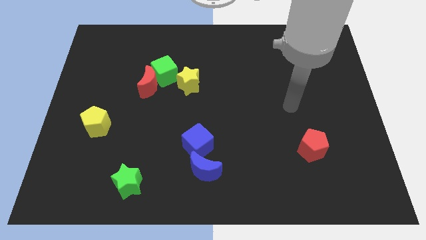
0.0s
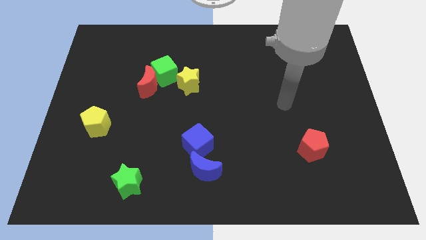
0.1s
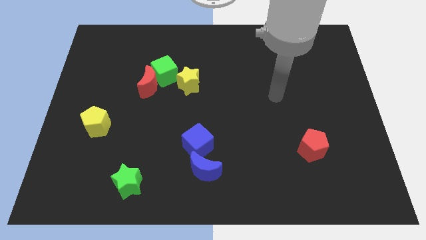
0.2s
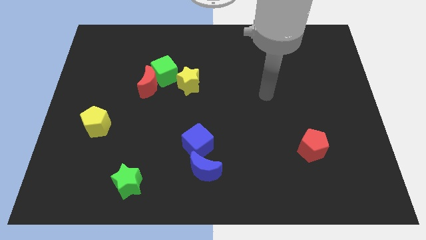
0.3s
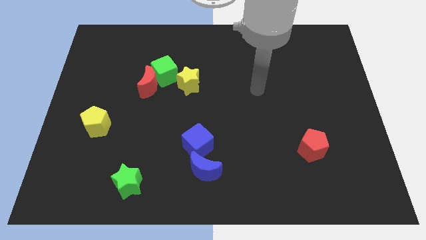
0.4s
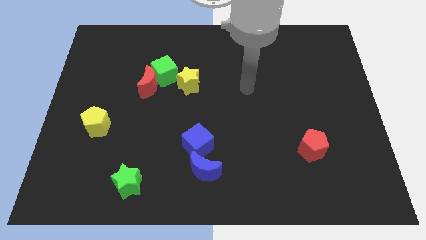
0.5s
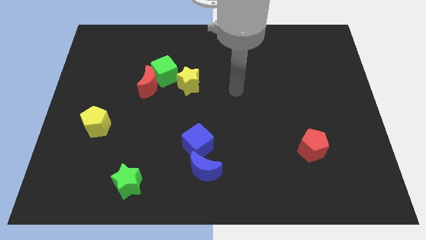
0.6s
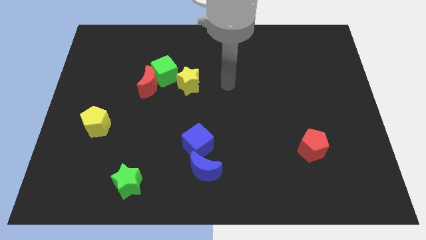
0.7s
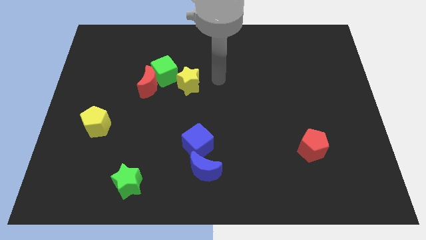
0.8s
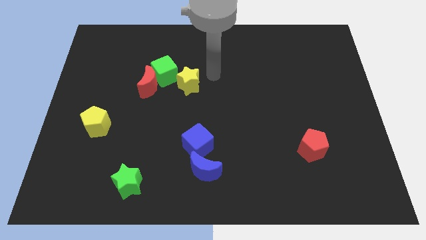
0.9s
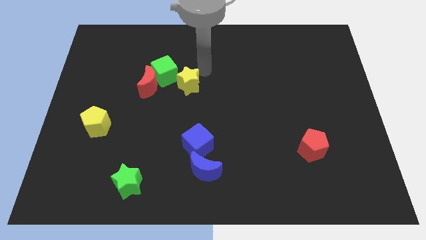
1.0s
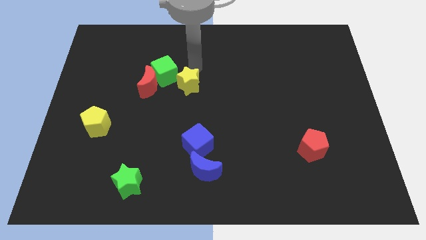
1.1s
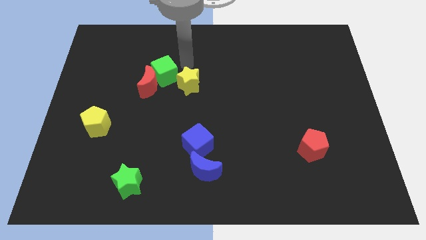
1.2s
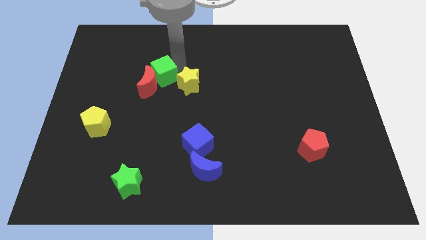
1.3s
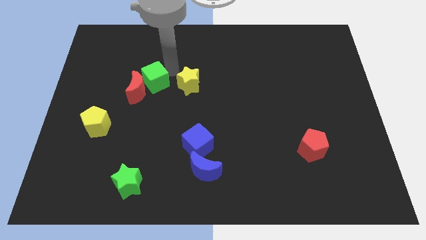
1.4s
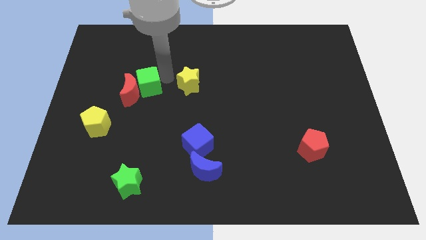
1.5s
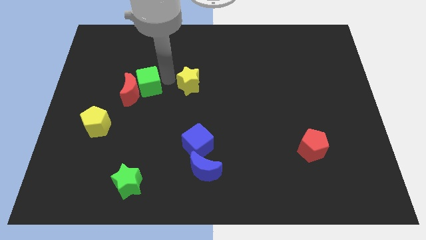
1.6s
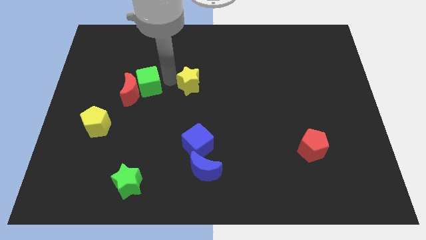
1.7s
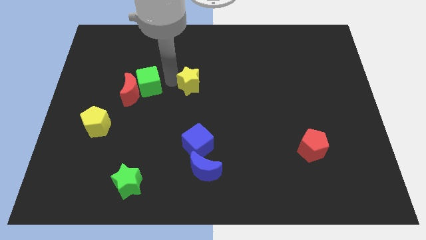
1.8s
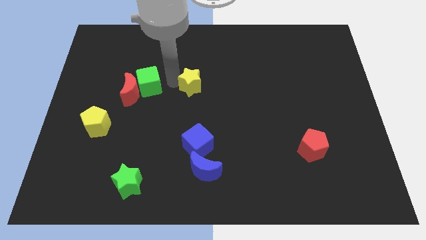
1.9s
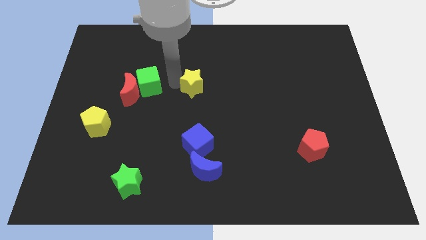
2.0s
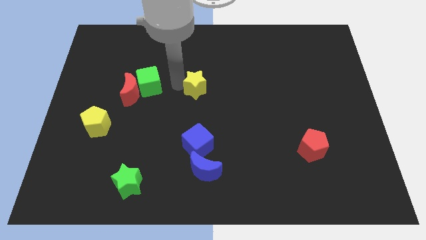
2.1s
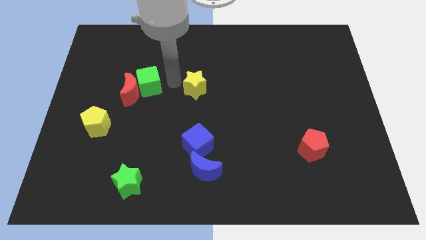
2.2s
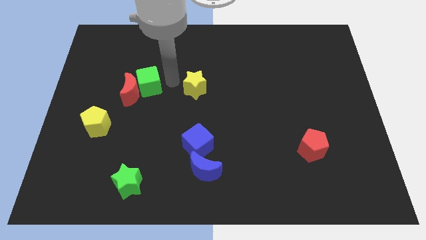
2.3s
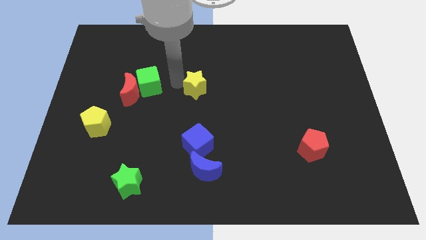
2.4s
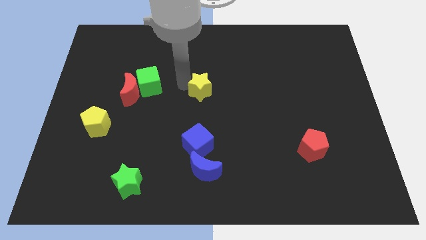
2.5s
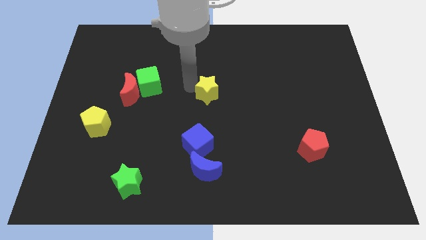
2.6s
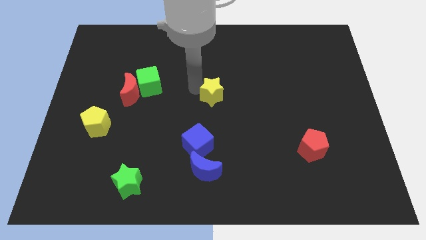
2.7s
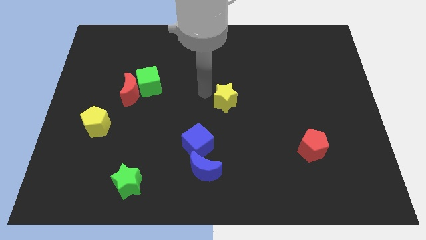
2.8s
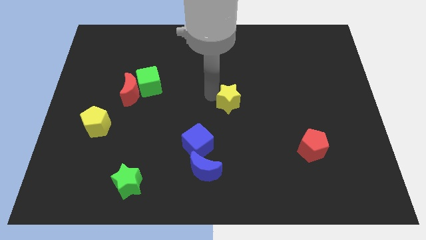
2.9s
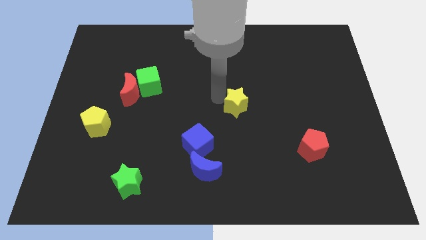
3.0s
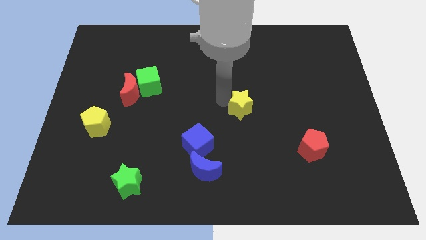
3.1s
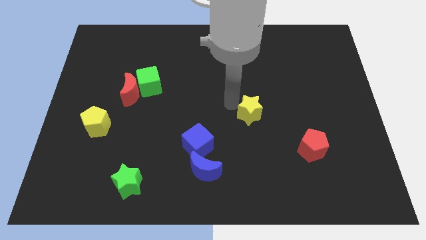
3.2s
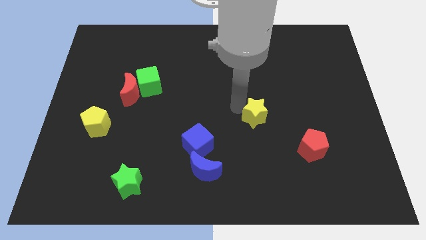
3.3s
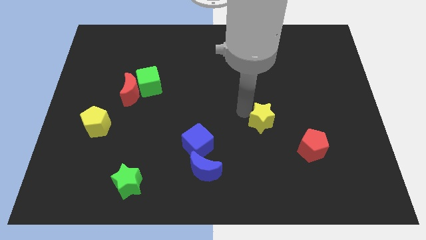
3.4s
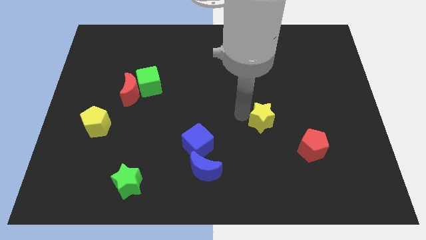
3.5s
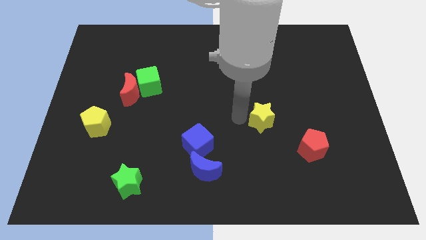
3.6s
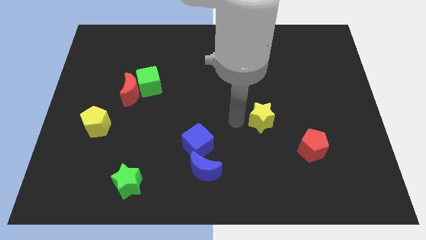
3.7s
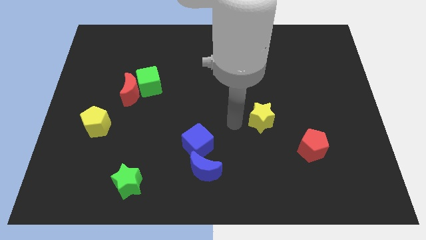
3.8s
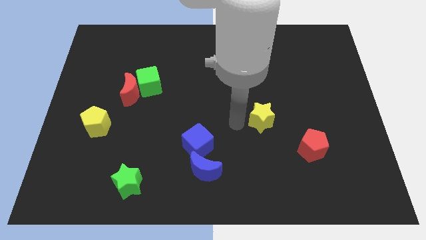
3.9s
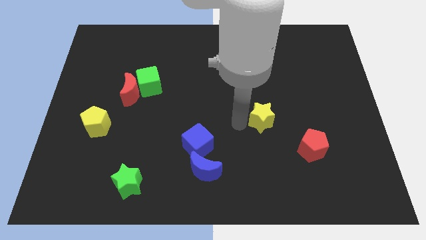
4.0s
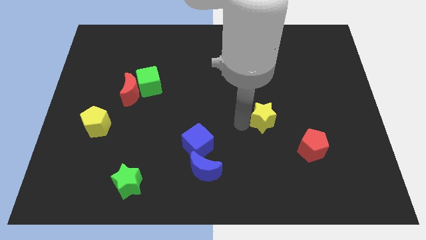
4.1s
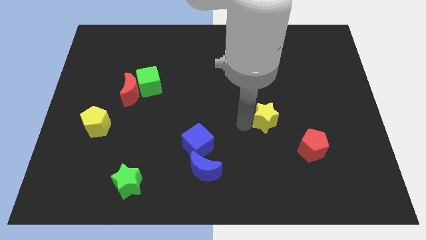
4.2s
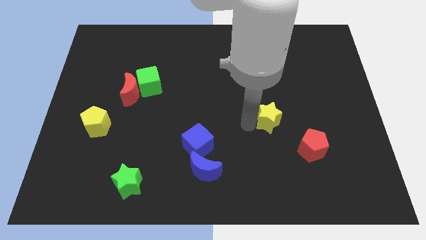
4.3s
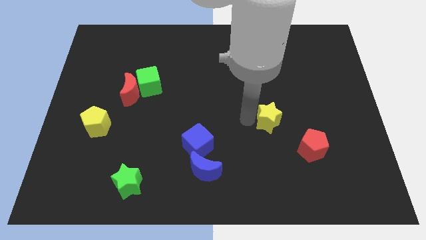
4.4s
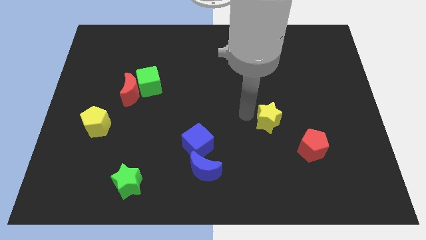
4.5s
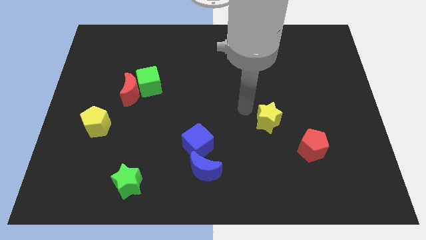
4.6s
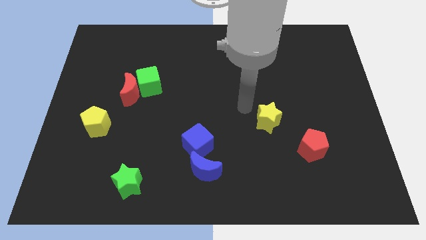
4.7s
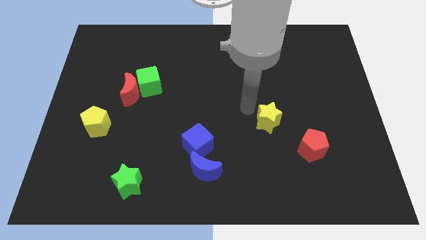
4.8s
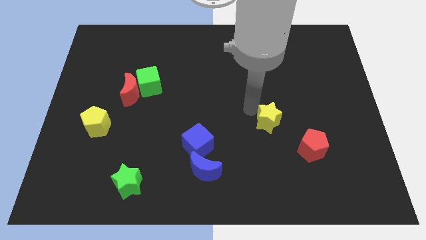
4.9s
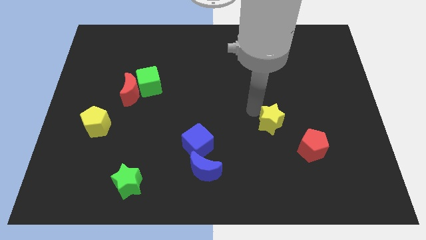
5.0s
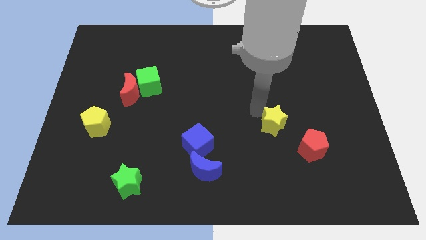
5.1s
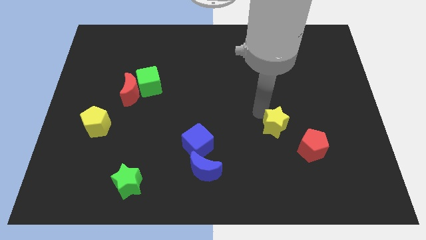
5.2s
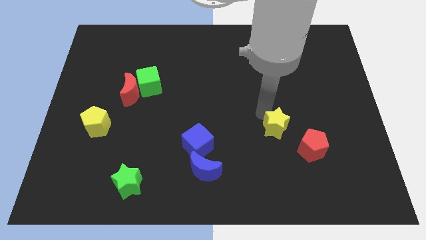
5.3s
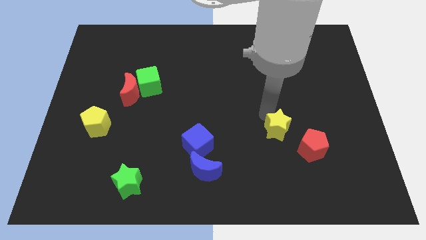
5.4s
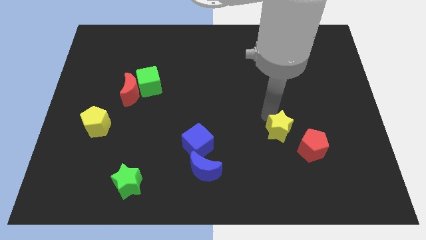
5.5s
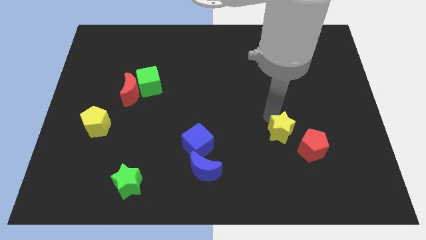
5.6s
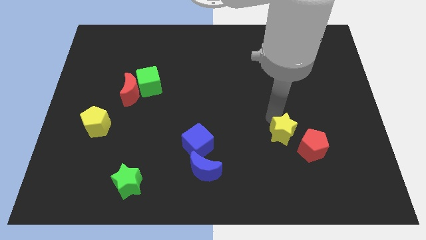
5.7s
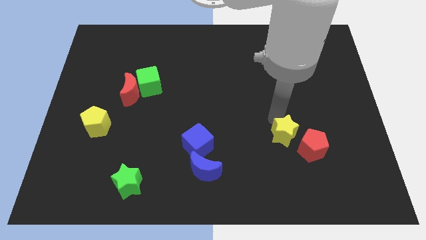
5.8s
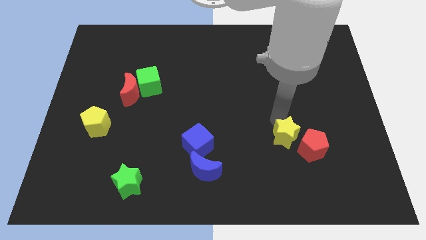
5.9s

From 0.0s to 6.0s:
slide the yellow star next to the red pentagon

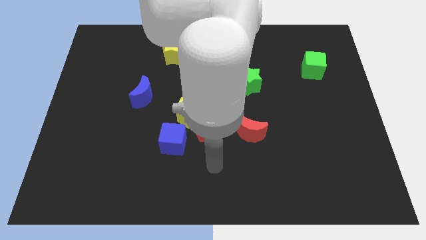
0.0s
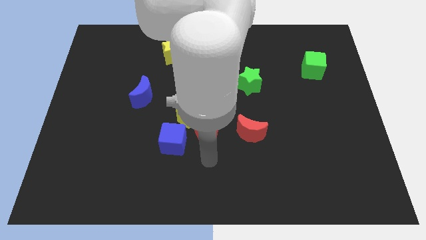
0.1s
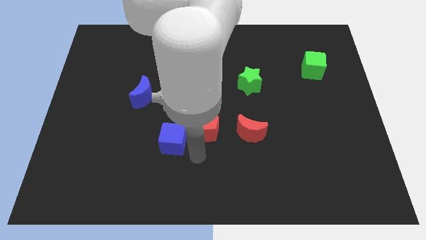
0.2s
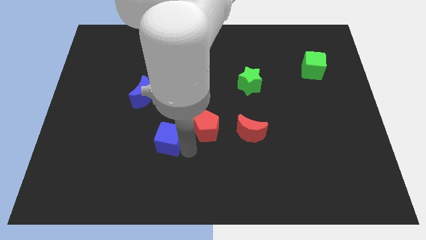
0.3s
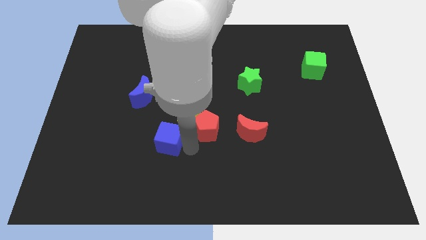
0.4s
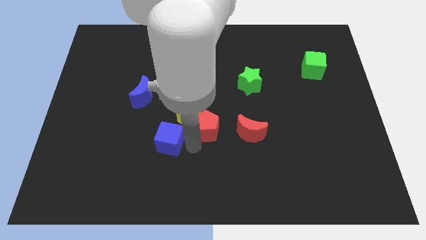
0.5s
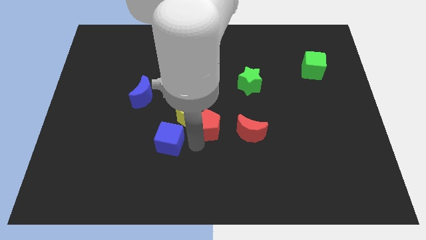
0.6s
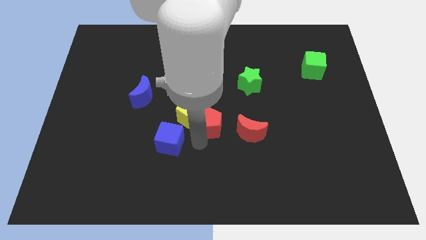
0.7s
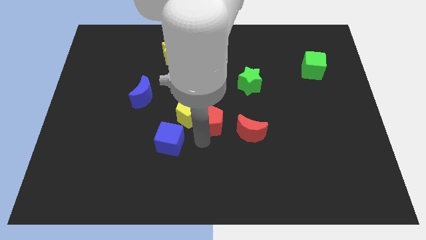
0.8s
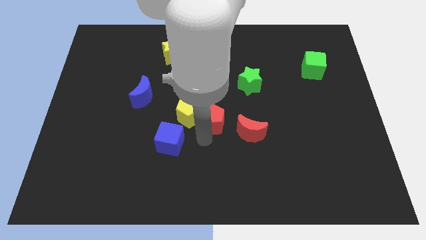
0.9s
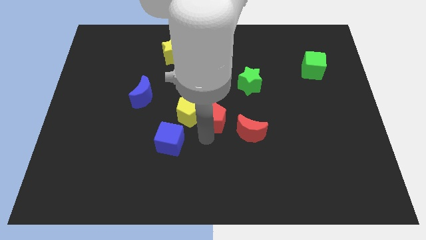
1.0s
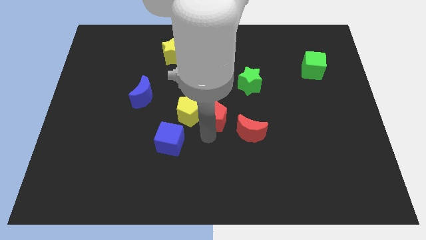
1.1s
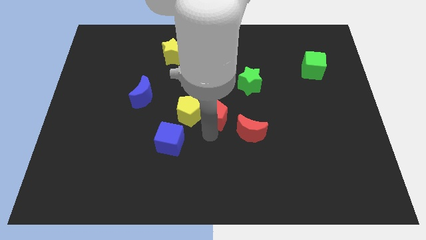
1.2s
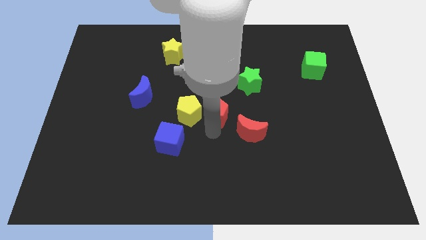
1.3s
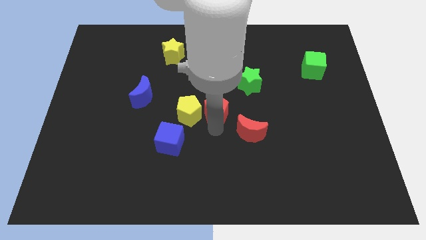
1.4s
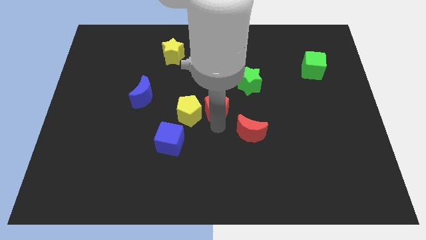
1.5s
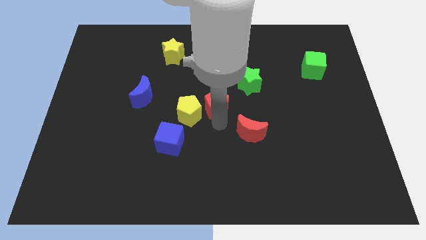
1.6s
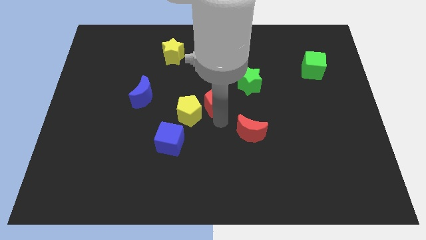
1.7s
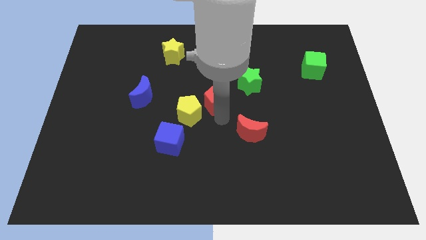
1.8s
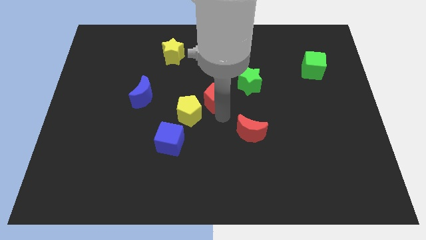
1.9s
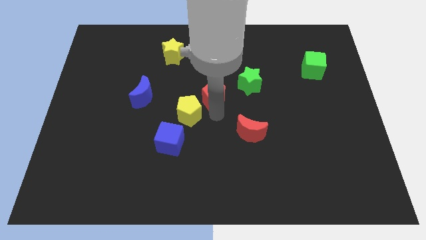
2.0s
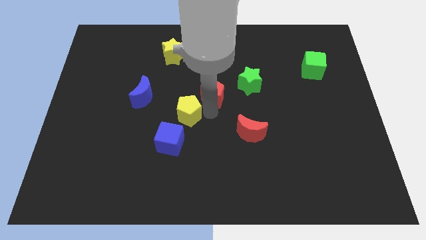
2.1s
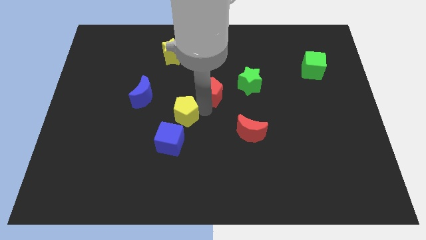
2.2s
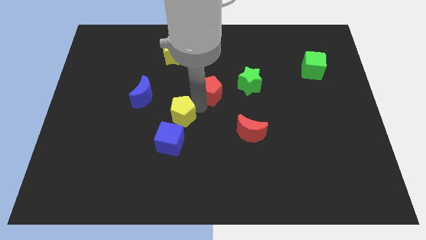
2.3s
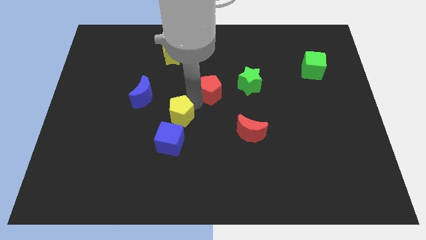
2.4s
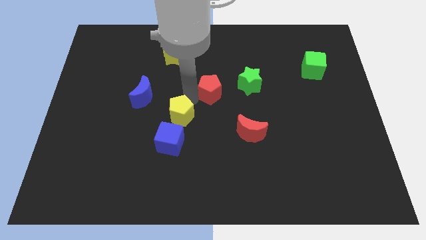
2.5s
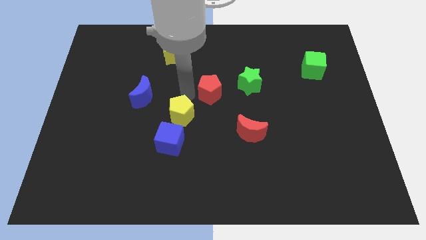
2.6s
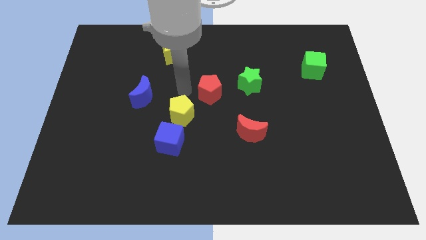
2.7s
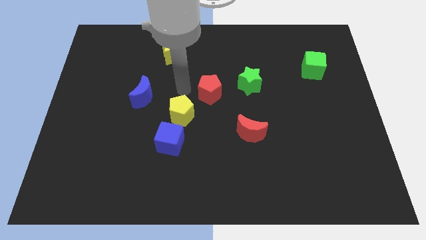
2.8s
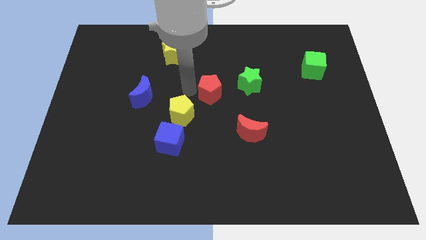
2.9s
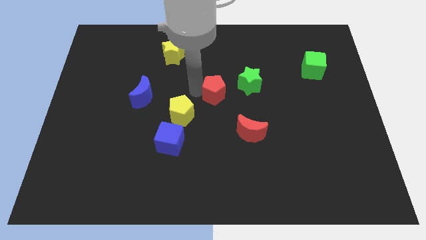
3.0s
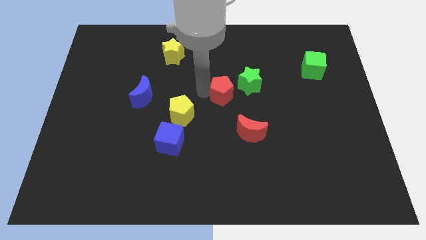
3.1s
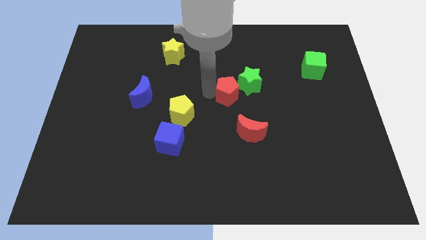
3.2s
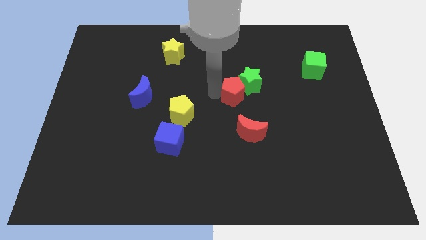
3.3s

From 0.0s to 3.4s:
put the red pentagon towards the green star
